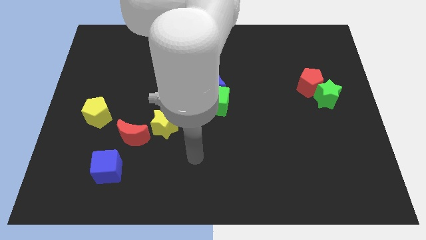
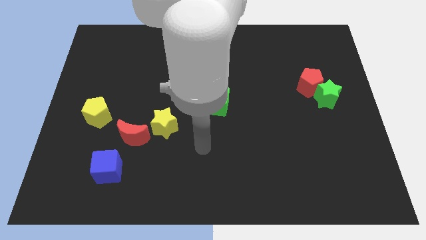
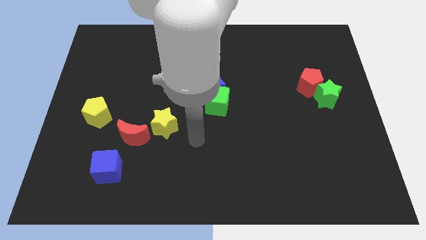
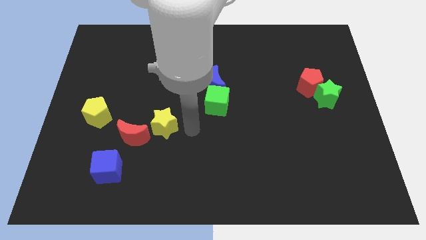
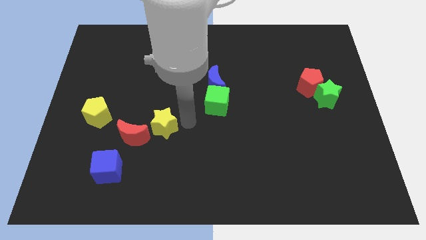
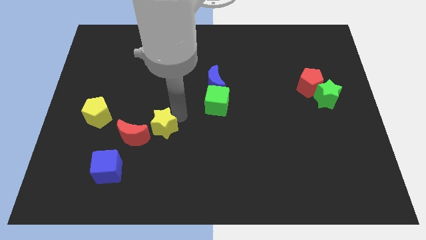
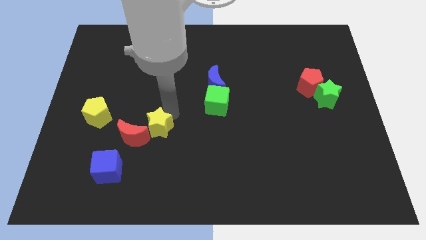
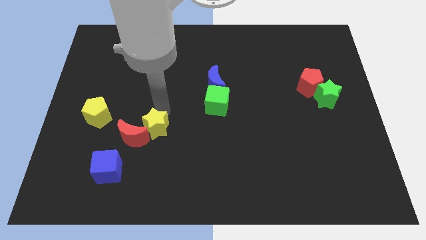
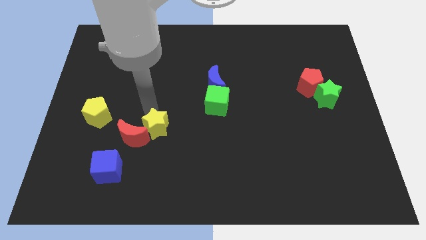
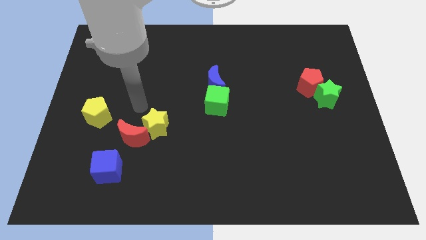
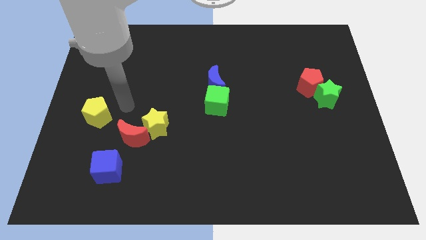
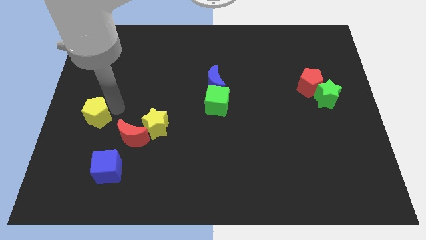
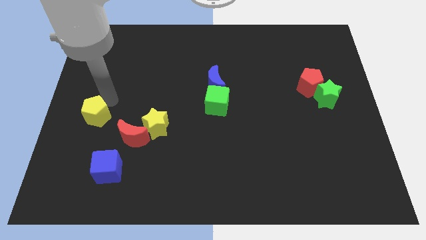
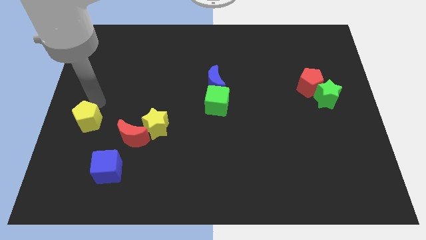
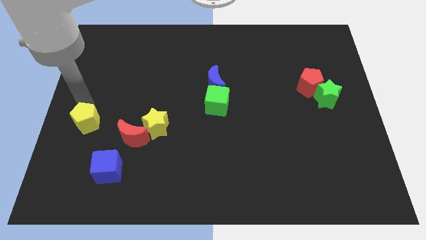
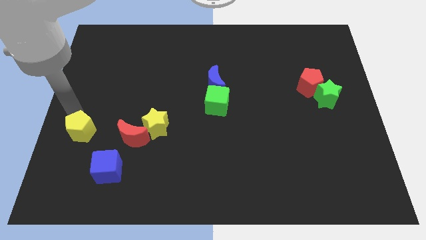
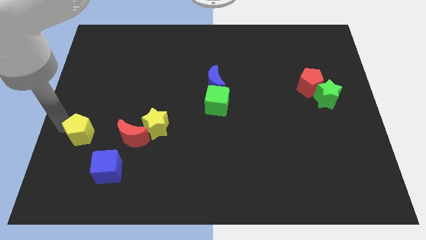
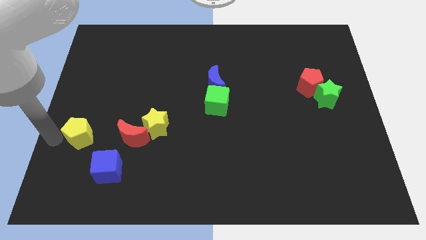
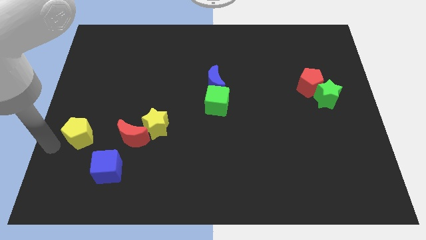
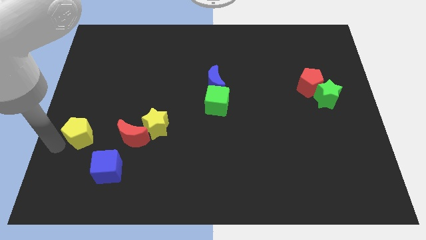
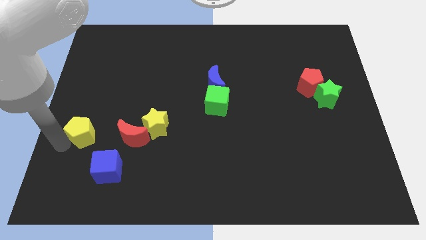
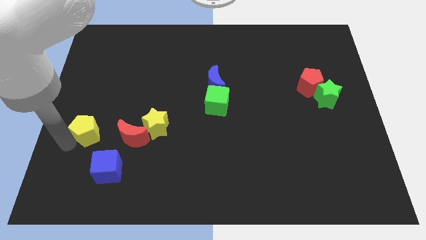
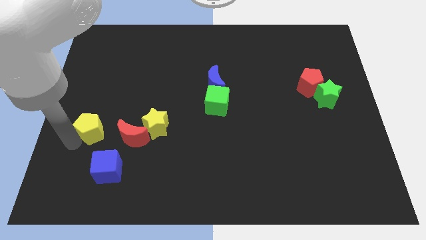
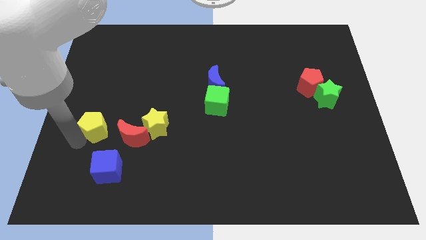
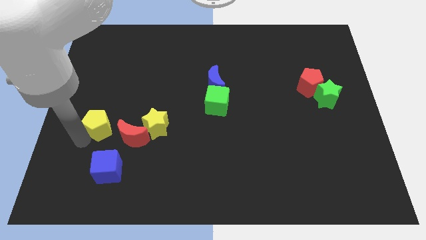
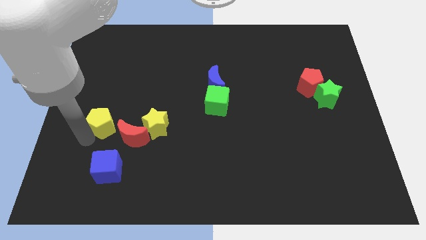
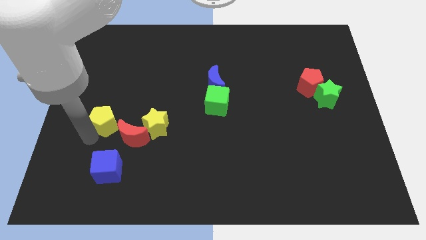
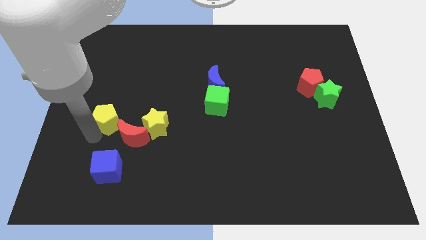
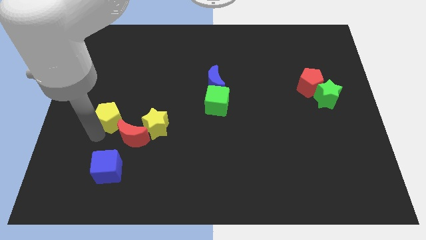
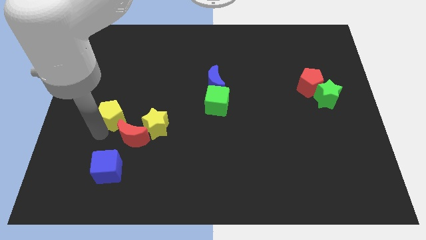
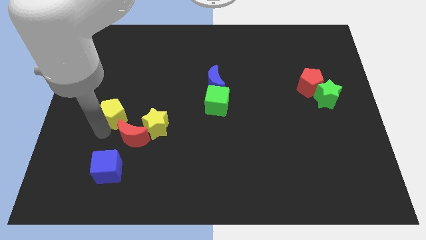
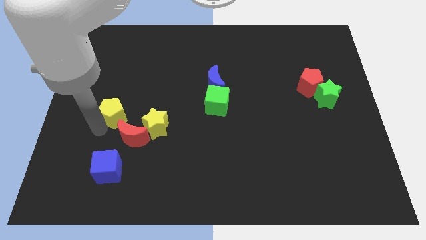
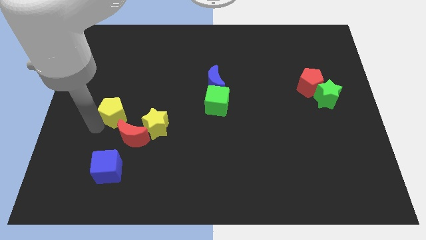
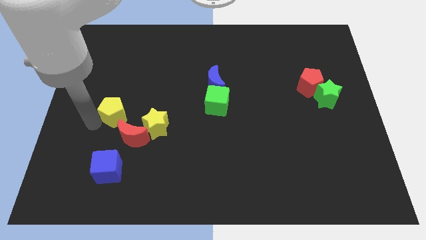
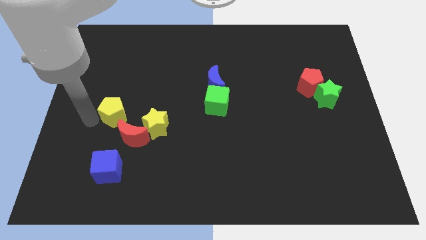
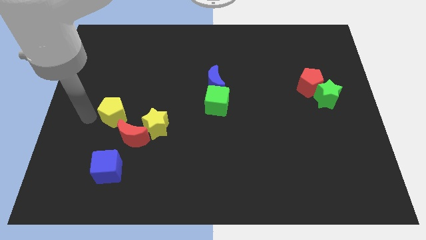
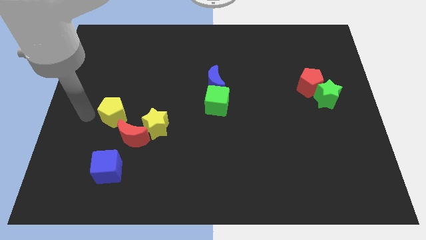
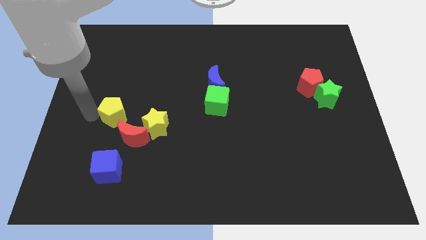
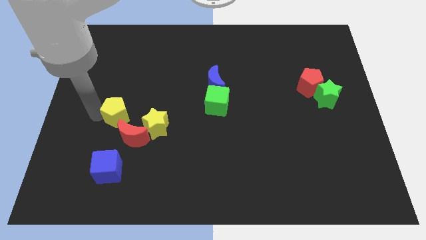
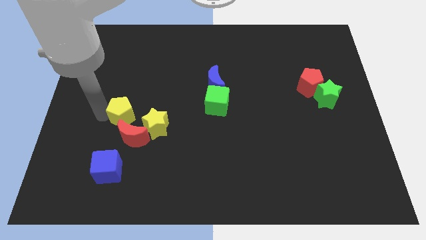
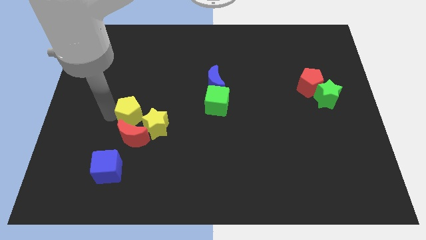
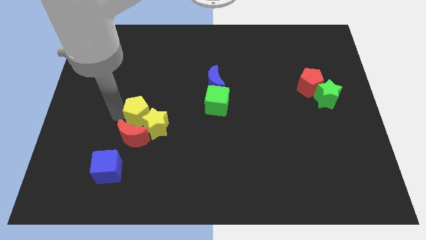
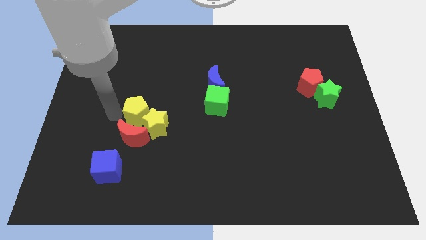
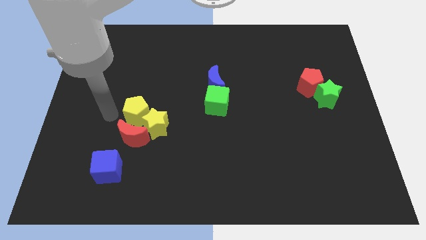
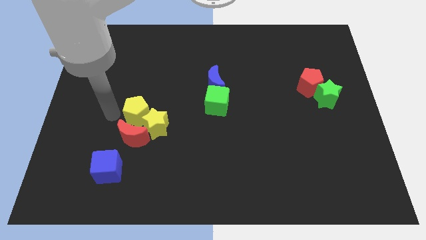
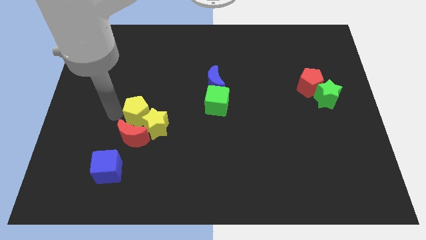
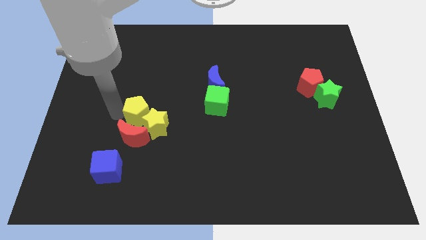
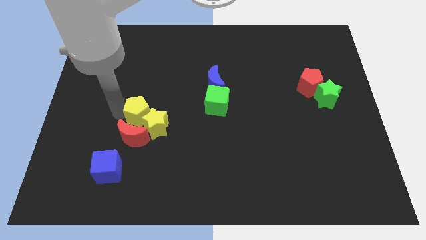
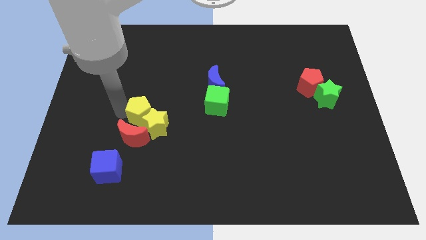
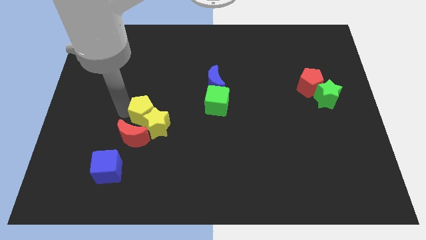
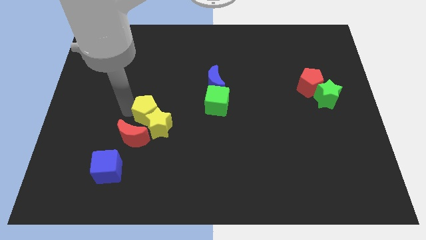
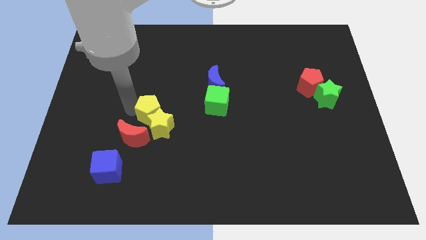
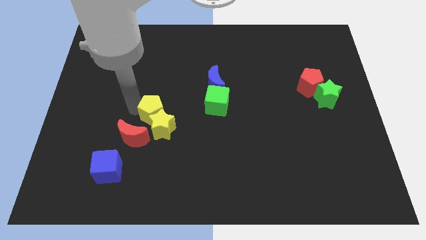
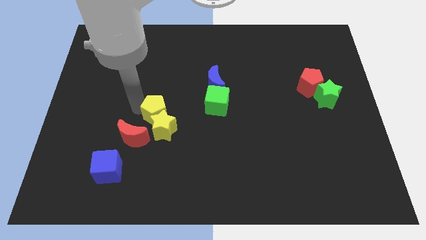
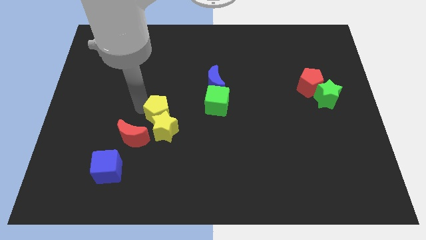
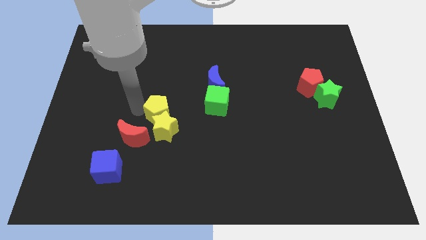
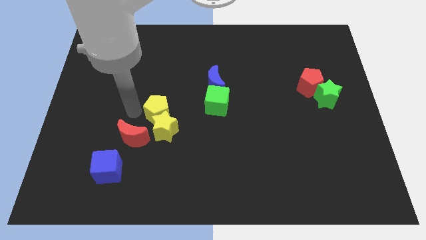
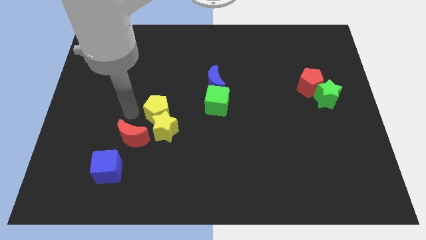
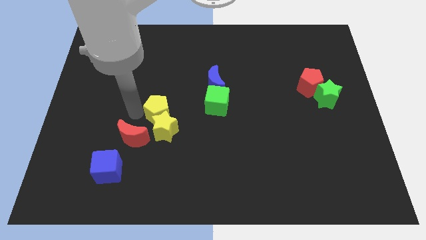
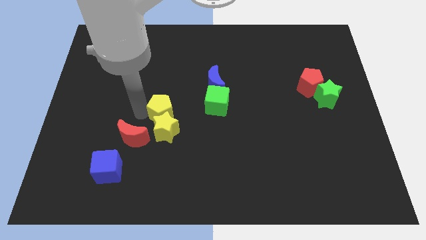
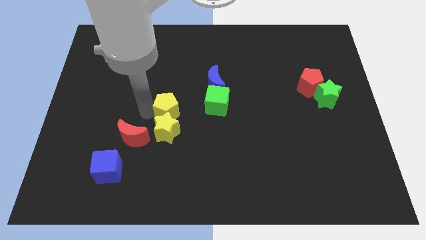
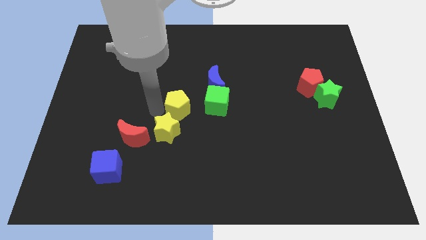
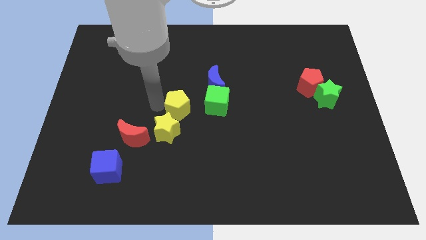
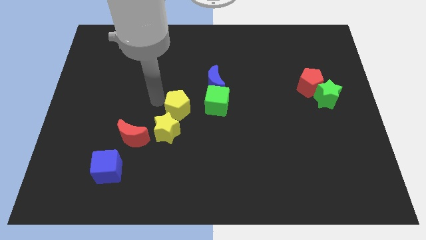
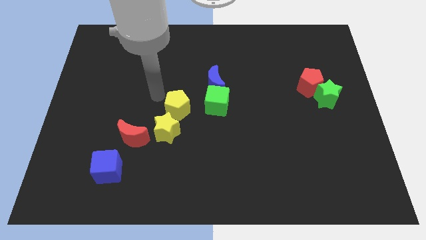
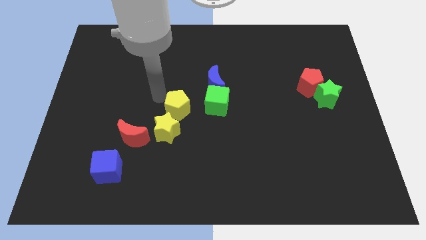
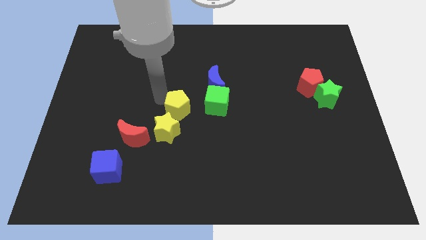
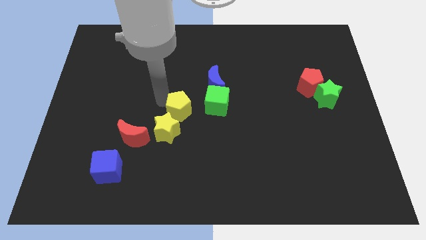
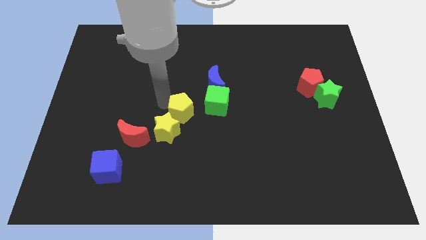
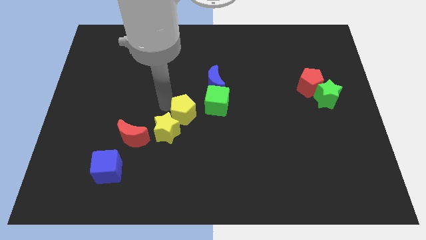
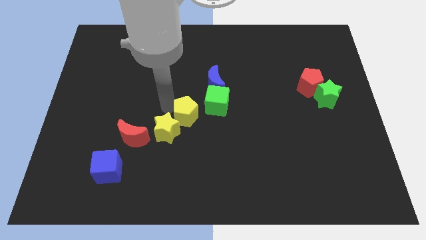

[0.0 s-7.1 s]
push the yellow pentagon right

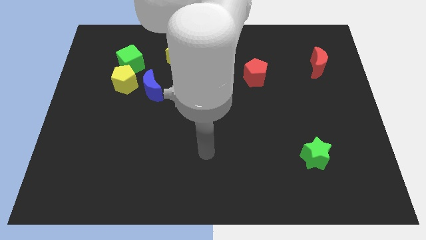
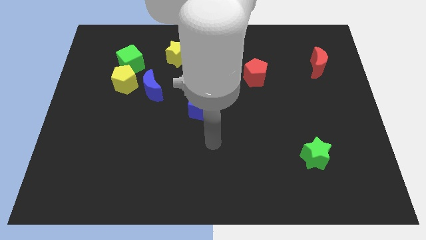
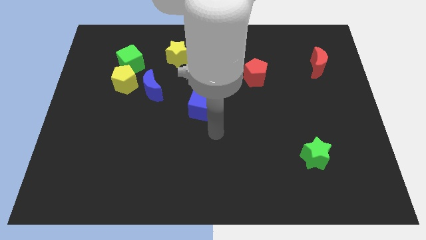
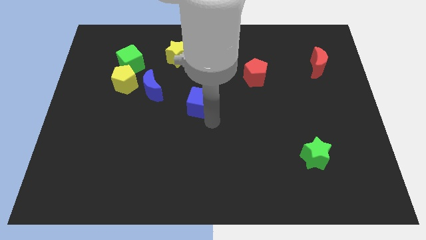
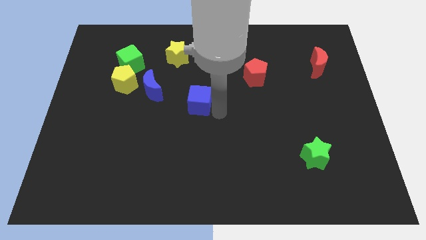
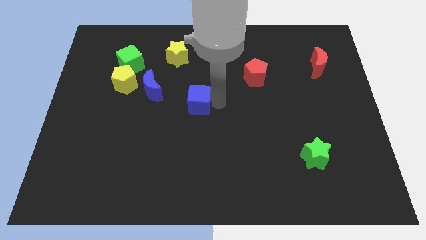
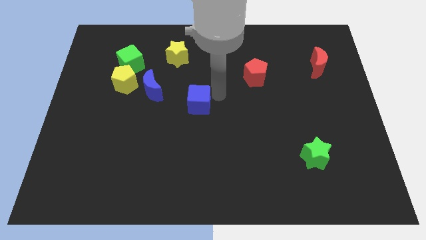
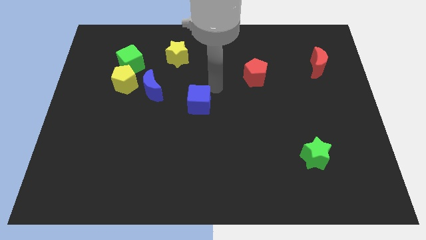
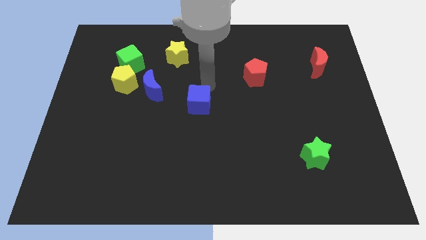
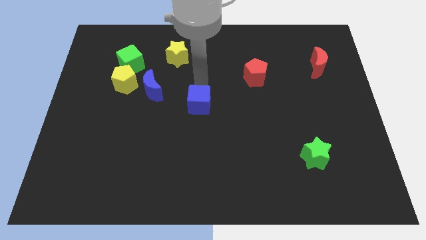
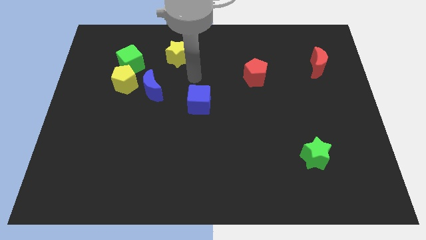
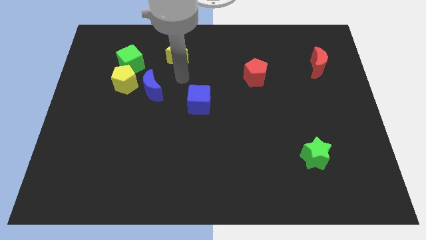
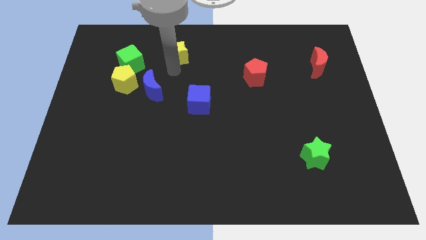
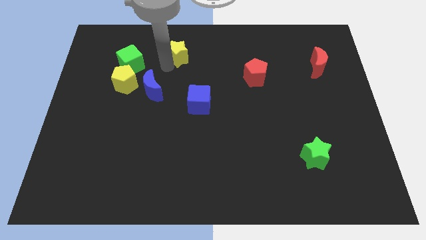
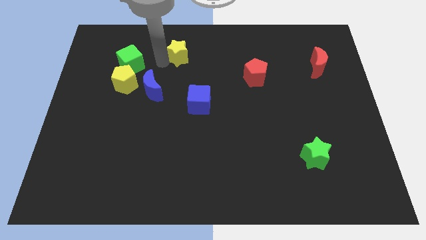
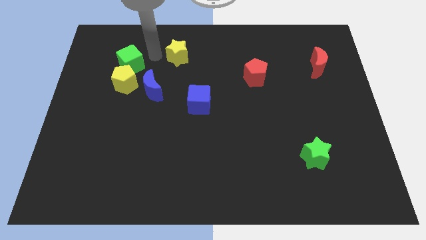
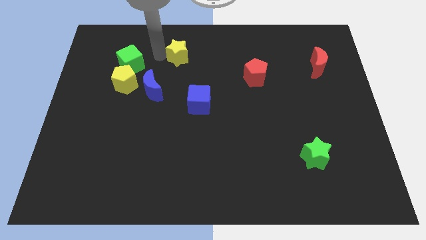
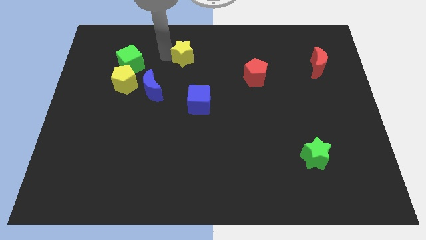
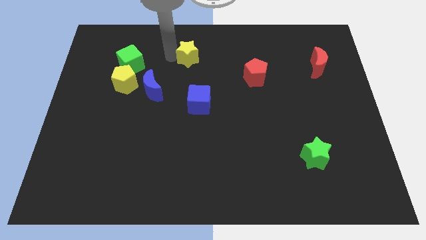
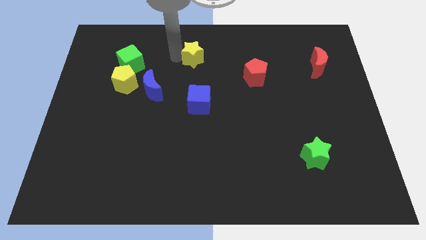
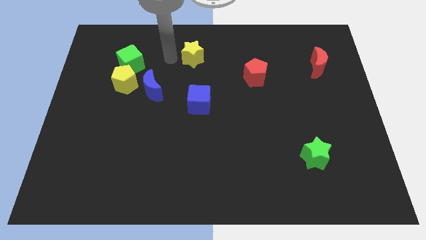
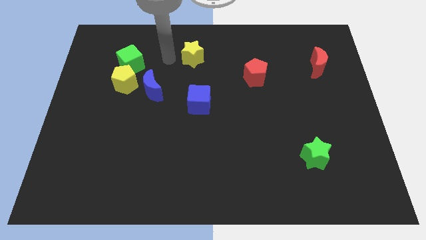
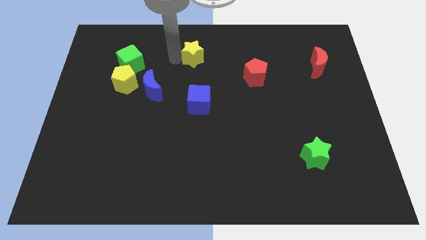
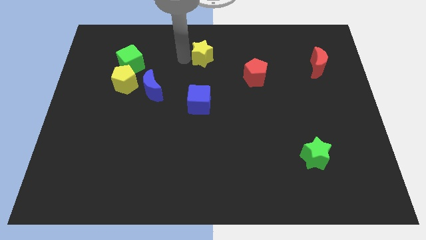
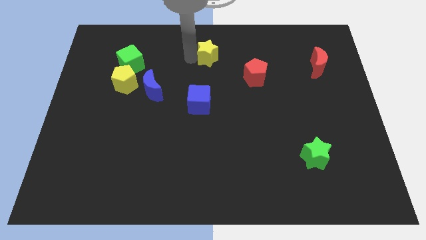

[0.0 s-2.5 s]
slide the yellow star a little right
